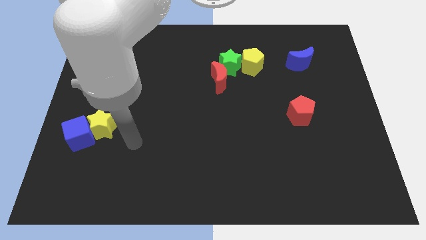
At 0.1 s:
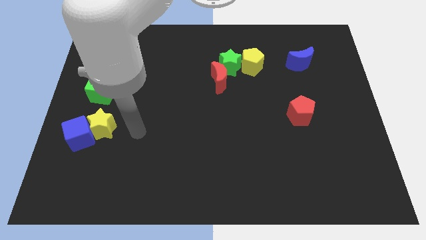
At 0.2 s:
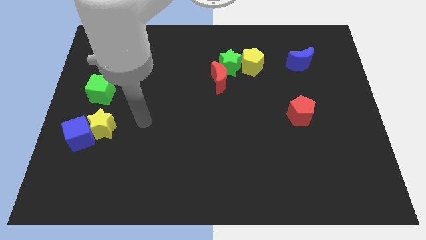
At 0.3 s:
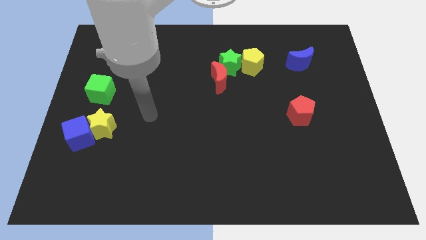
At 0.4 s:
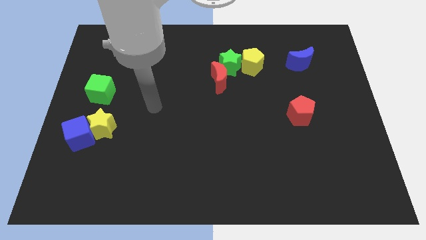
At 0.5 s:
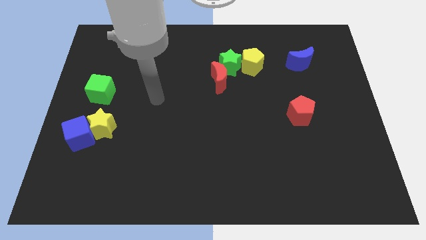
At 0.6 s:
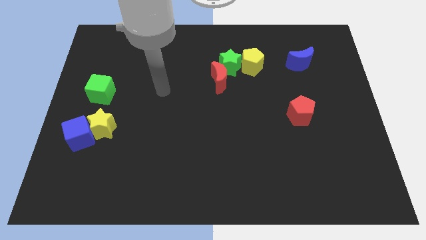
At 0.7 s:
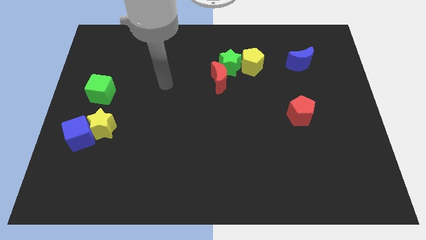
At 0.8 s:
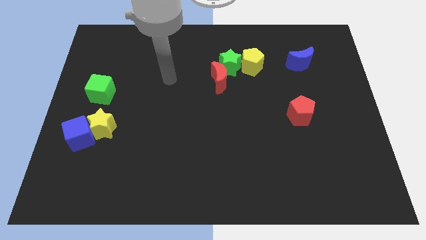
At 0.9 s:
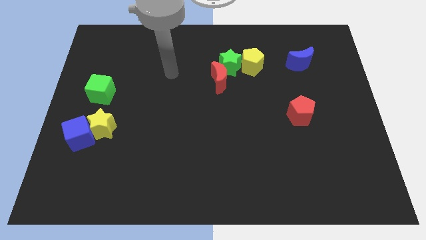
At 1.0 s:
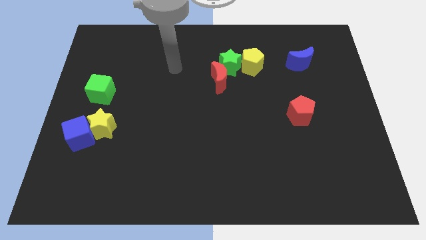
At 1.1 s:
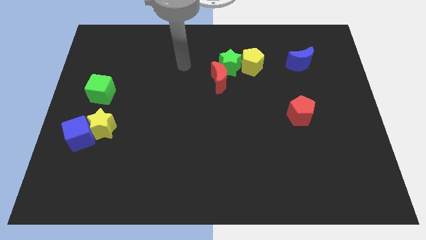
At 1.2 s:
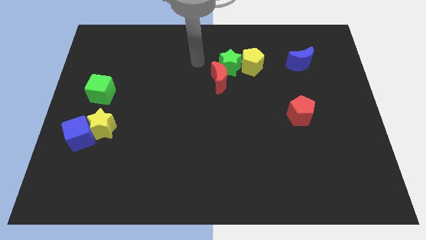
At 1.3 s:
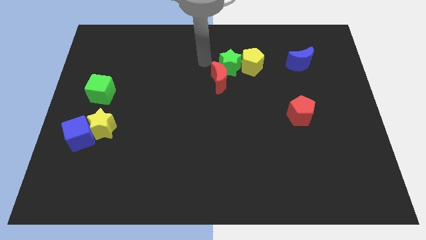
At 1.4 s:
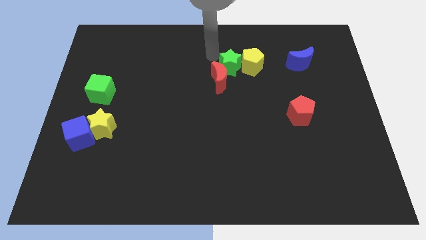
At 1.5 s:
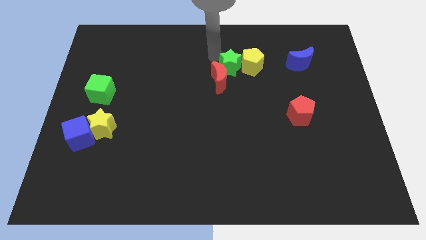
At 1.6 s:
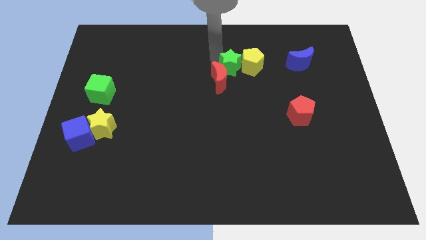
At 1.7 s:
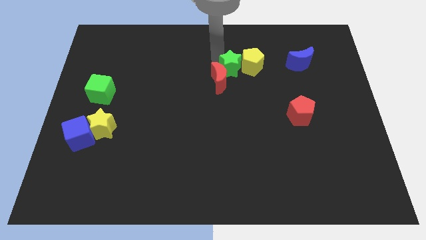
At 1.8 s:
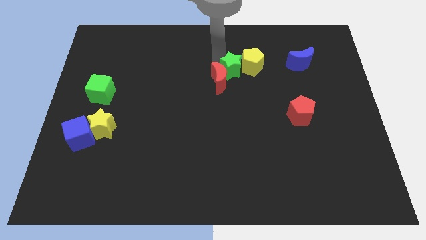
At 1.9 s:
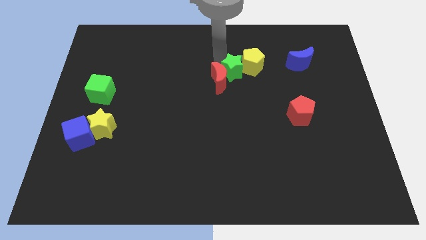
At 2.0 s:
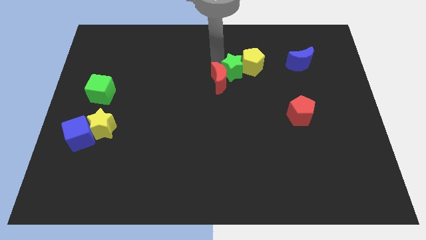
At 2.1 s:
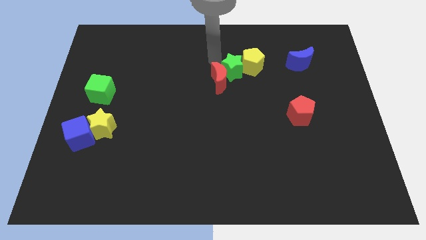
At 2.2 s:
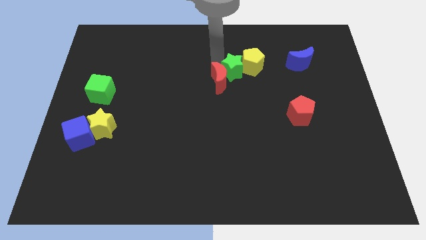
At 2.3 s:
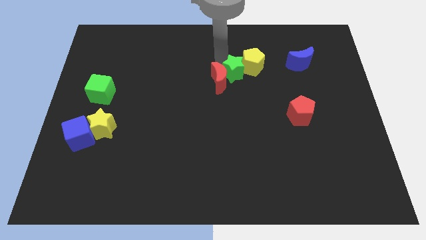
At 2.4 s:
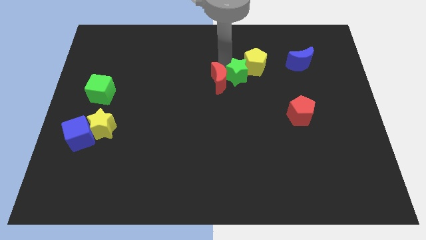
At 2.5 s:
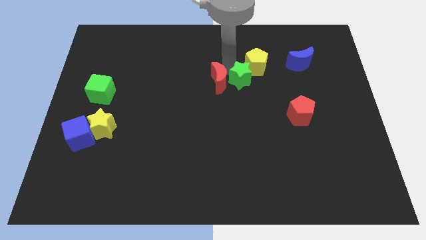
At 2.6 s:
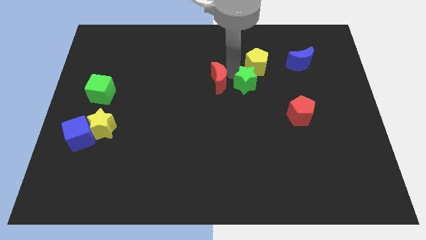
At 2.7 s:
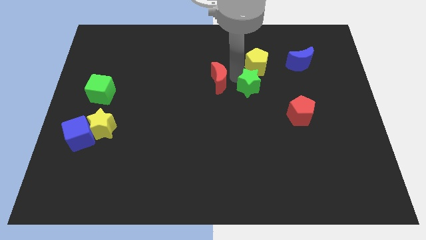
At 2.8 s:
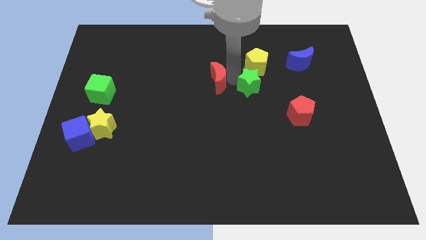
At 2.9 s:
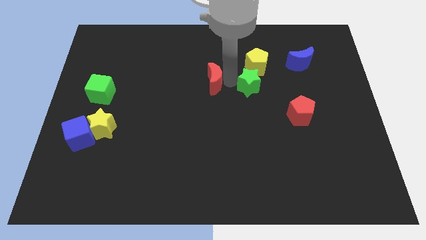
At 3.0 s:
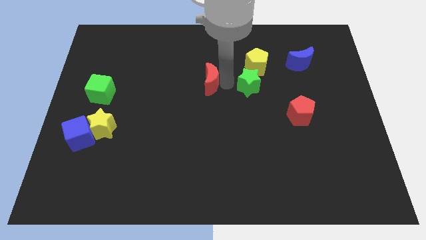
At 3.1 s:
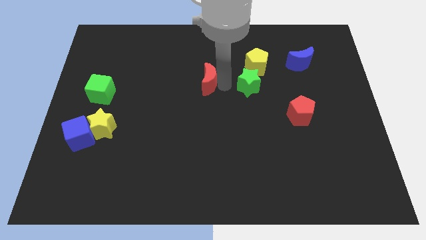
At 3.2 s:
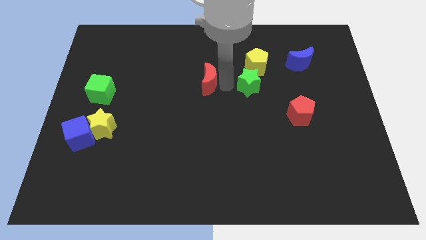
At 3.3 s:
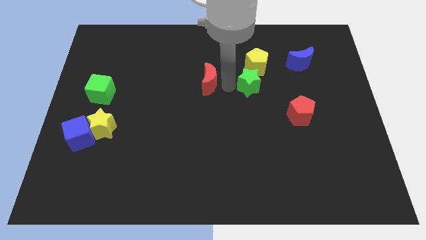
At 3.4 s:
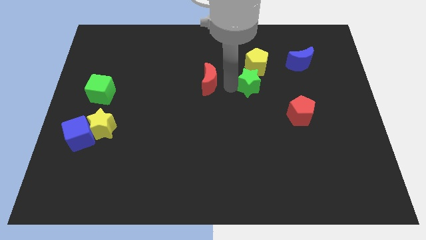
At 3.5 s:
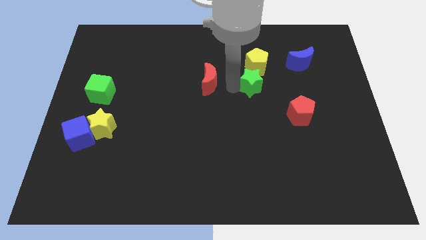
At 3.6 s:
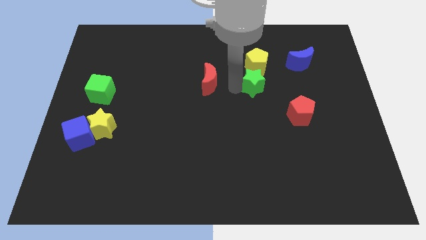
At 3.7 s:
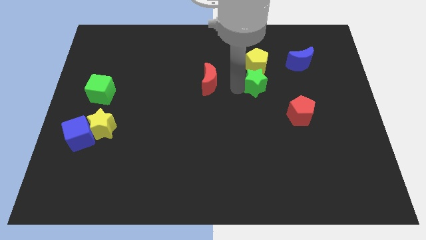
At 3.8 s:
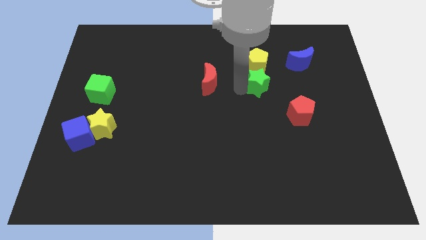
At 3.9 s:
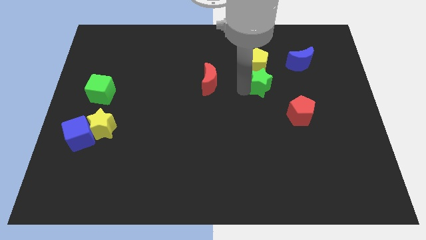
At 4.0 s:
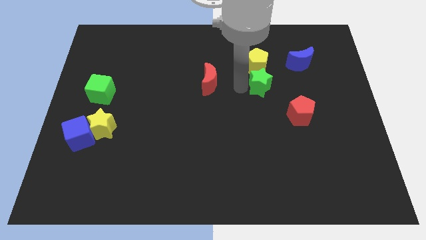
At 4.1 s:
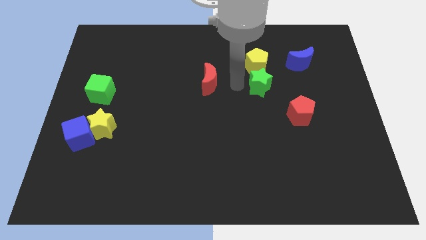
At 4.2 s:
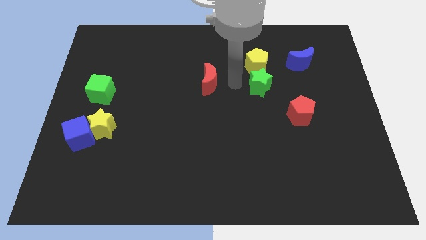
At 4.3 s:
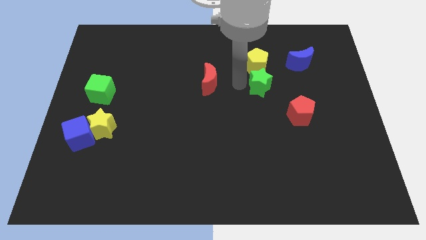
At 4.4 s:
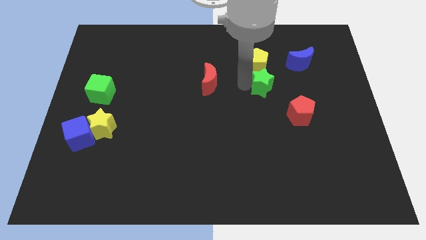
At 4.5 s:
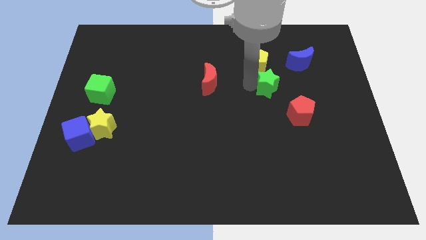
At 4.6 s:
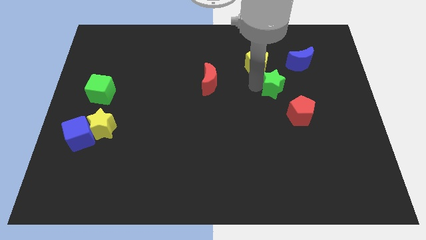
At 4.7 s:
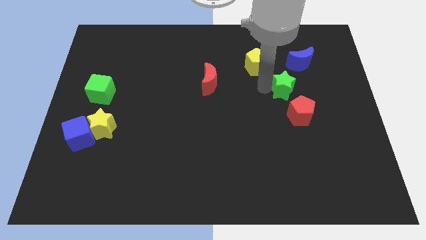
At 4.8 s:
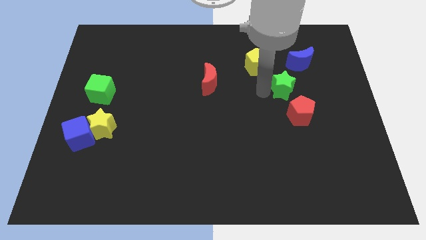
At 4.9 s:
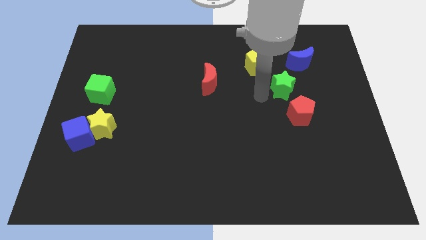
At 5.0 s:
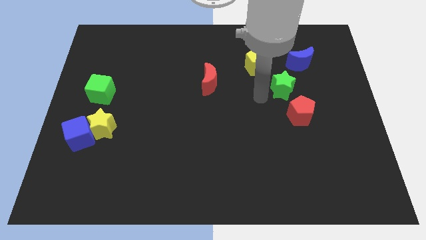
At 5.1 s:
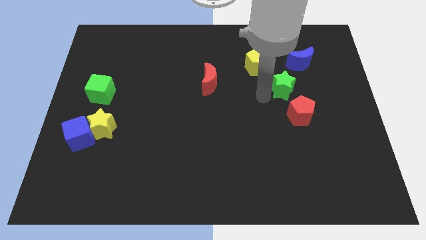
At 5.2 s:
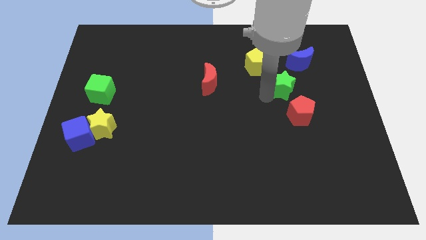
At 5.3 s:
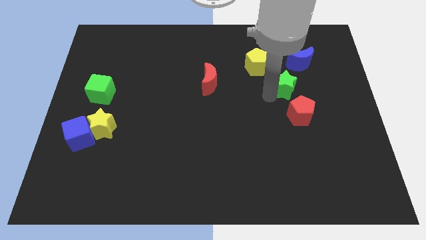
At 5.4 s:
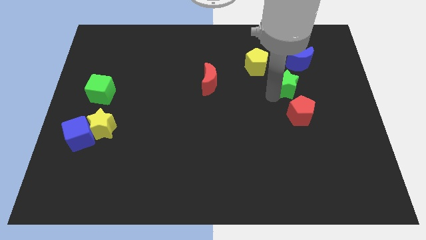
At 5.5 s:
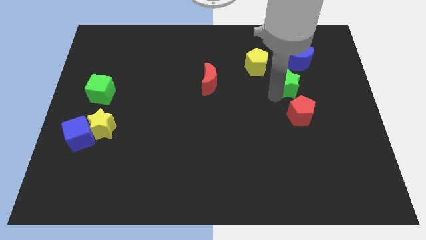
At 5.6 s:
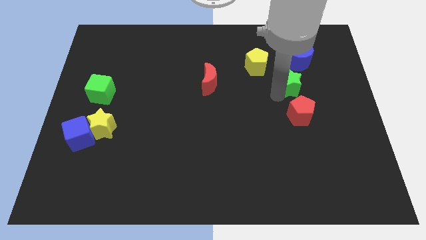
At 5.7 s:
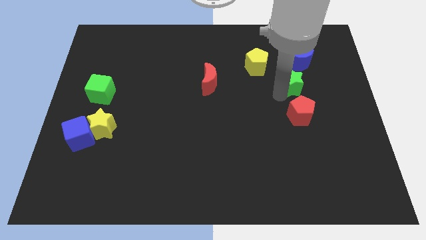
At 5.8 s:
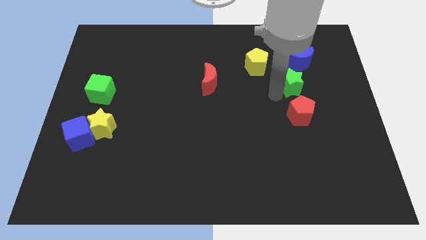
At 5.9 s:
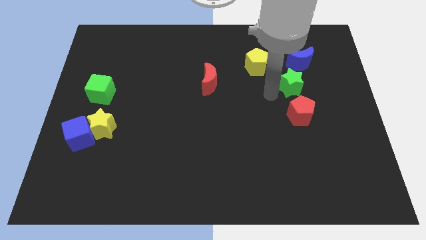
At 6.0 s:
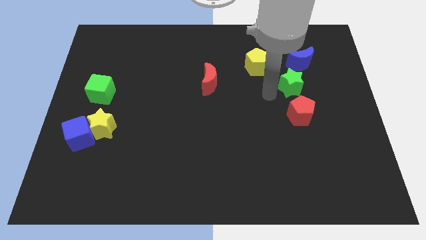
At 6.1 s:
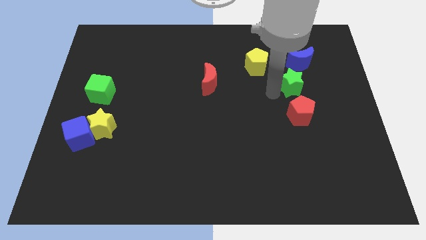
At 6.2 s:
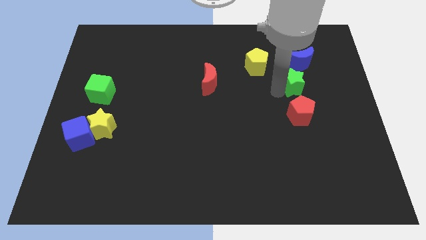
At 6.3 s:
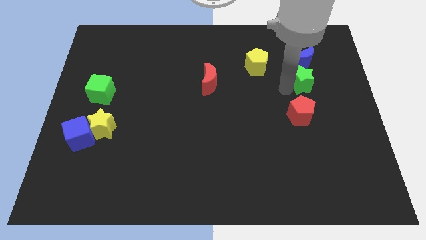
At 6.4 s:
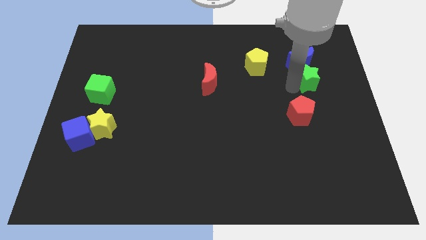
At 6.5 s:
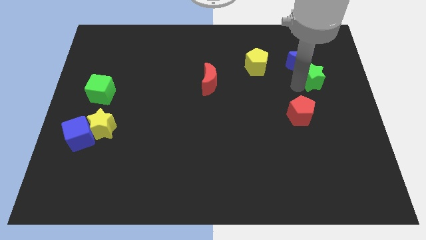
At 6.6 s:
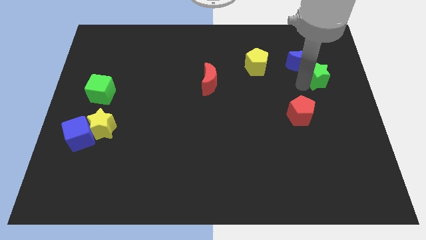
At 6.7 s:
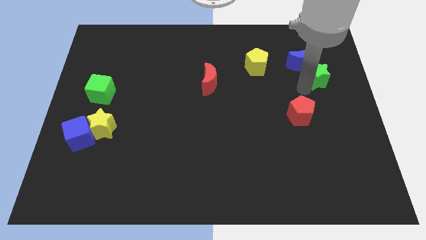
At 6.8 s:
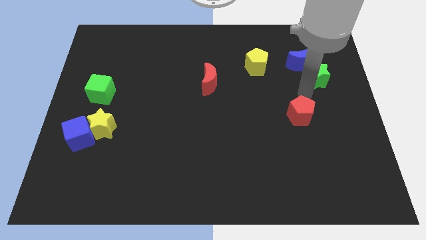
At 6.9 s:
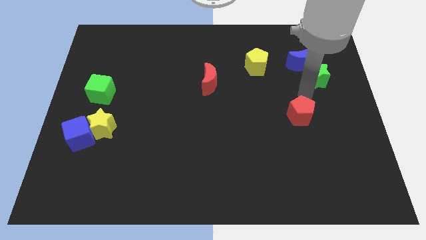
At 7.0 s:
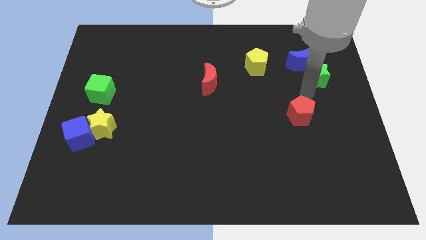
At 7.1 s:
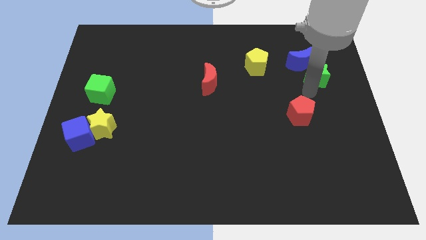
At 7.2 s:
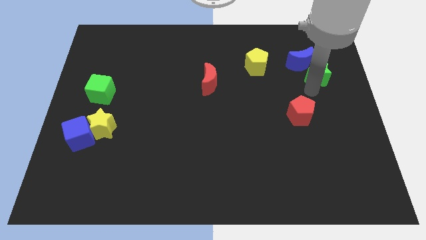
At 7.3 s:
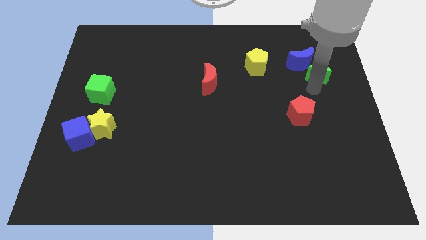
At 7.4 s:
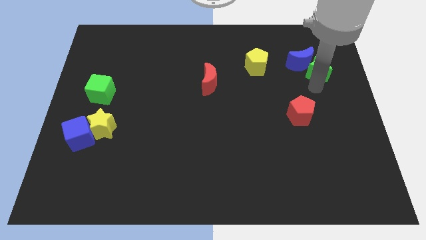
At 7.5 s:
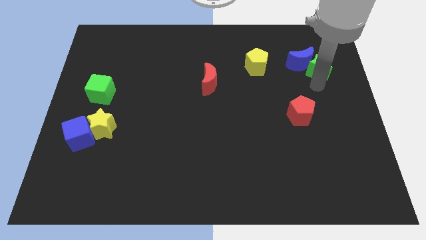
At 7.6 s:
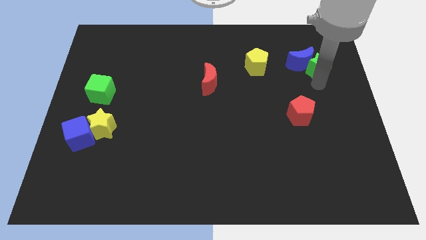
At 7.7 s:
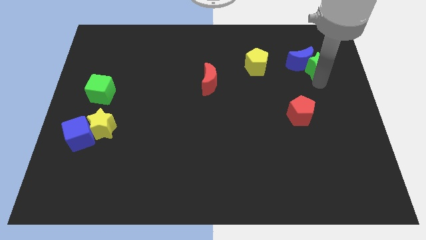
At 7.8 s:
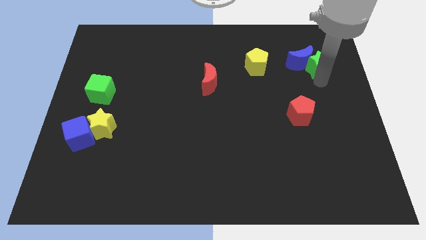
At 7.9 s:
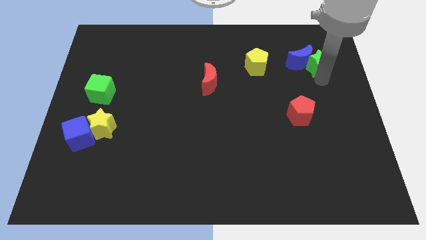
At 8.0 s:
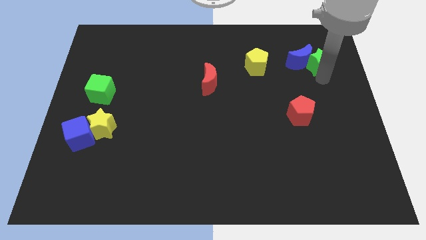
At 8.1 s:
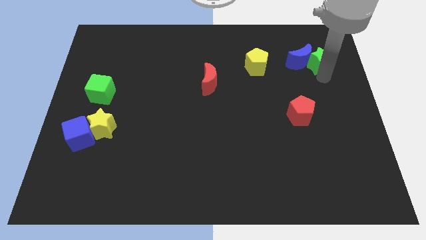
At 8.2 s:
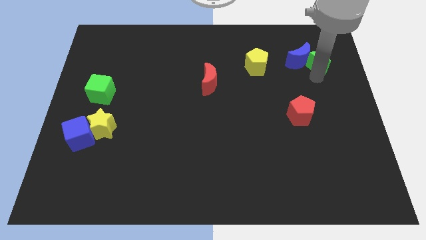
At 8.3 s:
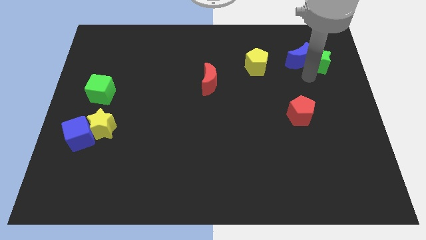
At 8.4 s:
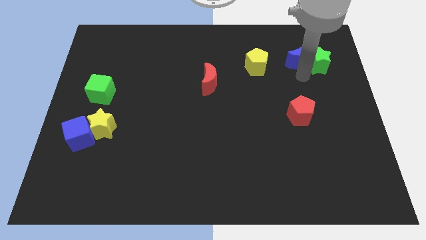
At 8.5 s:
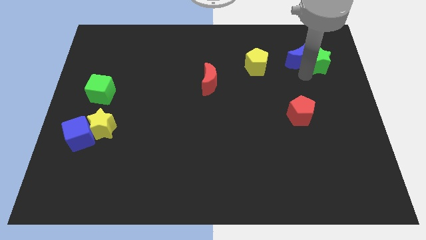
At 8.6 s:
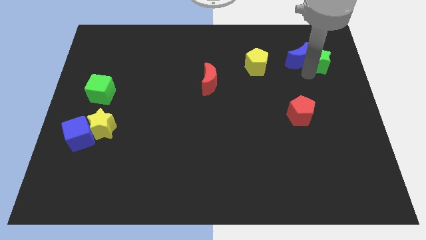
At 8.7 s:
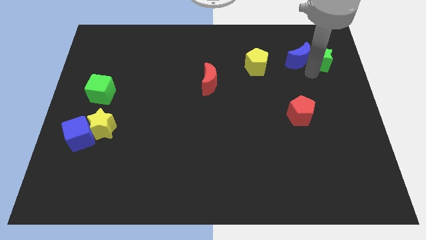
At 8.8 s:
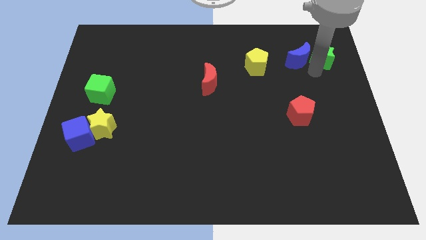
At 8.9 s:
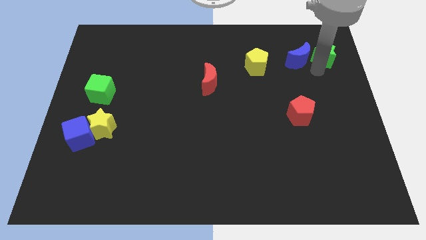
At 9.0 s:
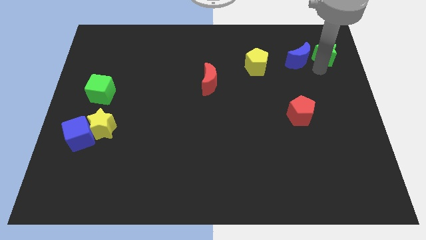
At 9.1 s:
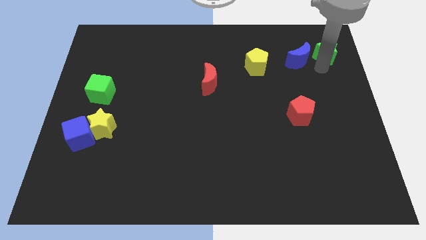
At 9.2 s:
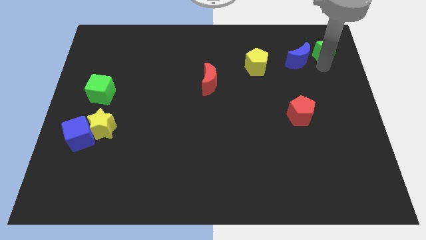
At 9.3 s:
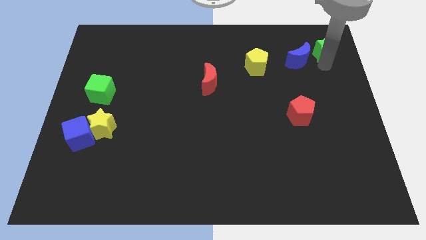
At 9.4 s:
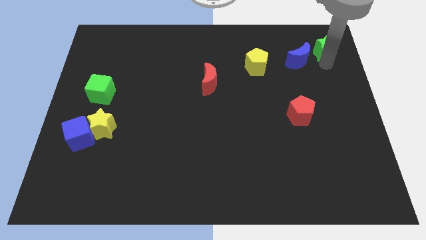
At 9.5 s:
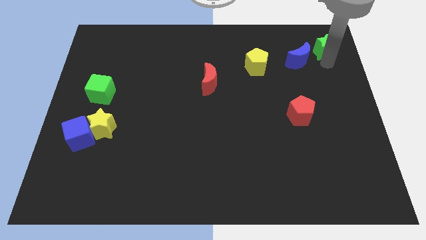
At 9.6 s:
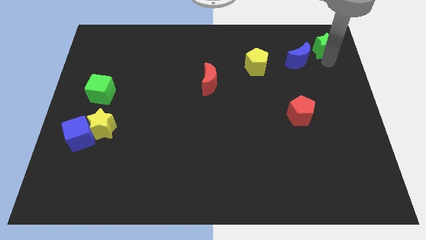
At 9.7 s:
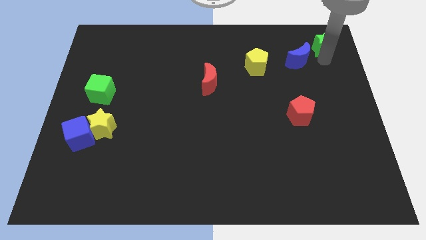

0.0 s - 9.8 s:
slide the green star to the upper right corner
